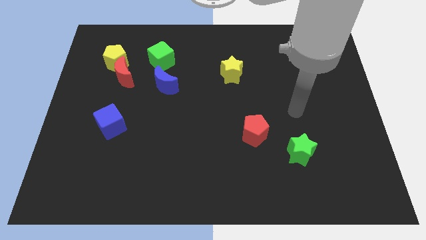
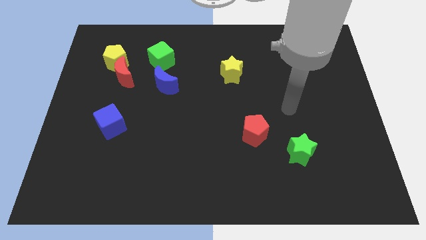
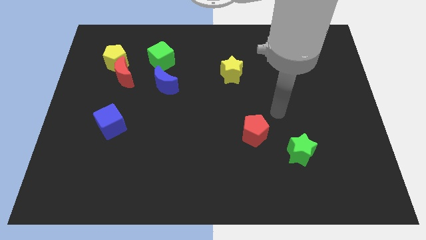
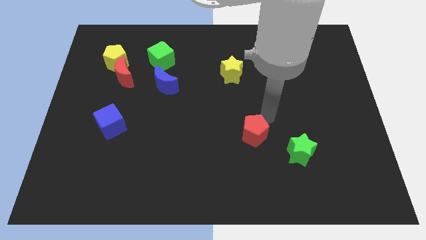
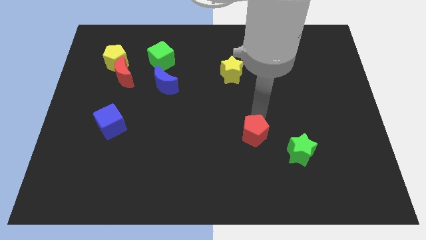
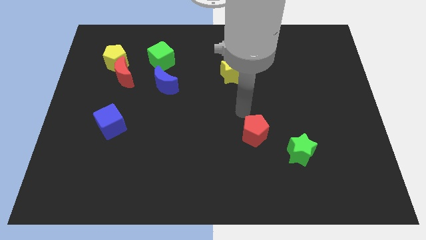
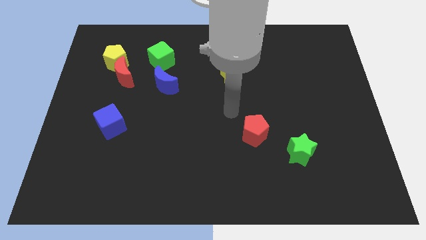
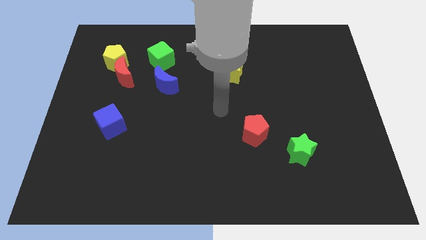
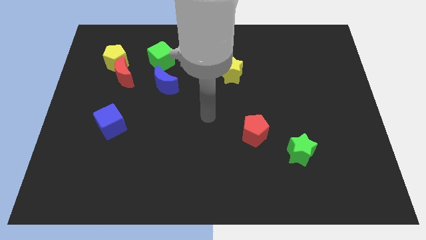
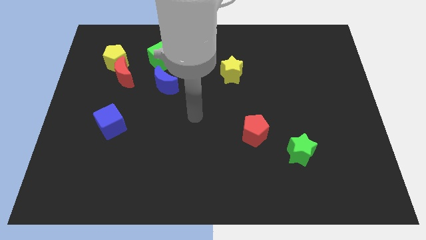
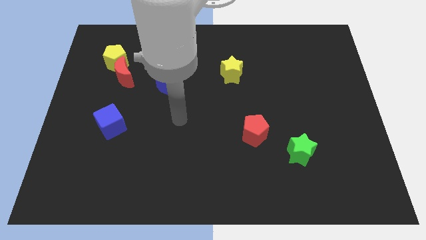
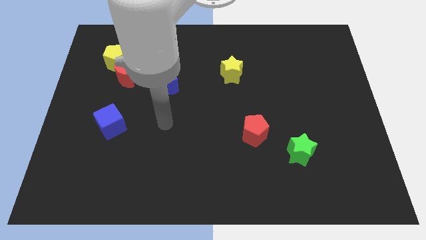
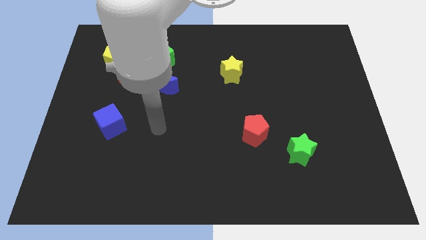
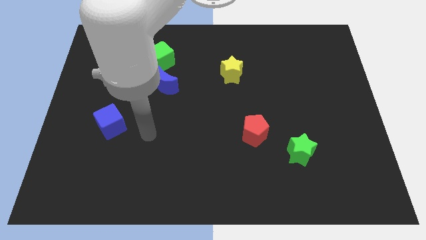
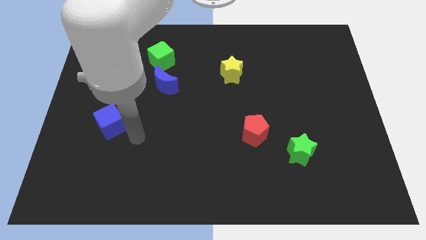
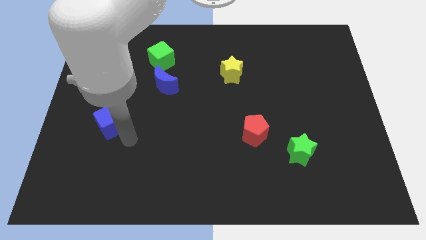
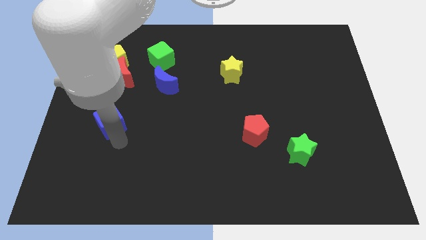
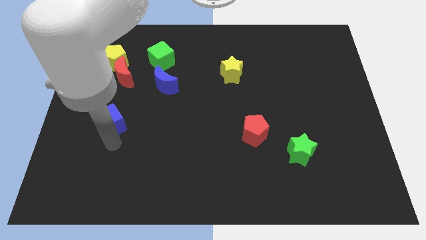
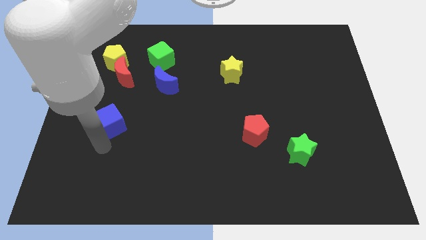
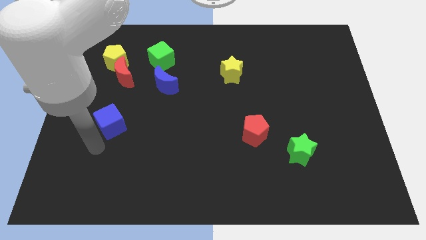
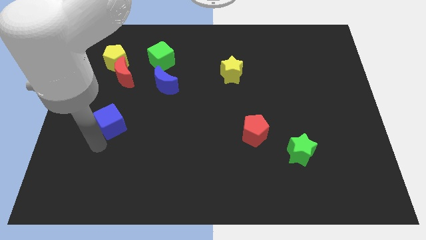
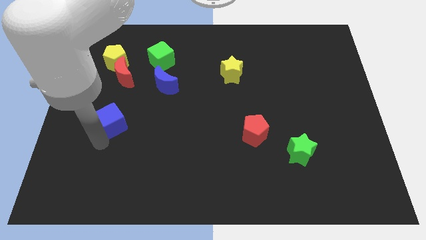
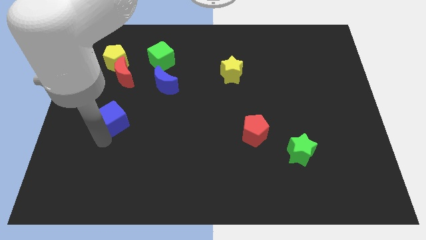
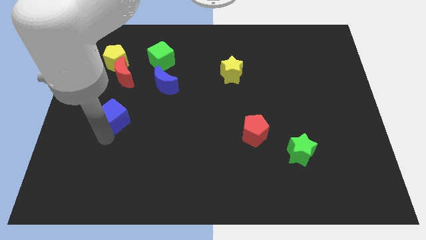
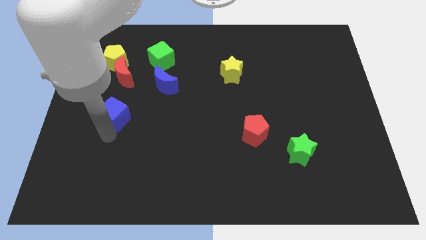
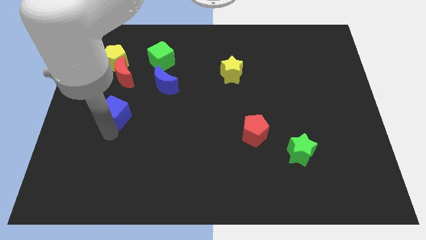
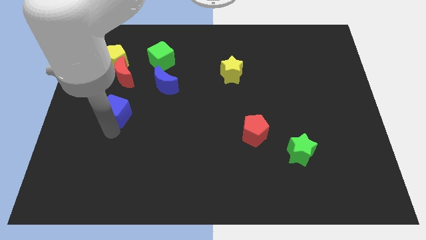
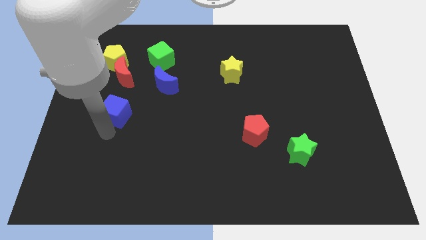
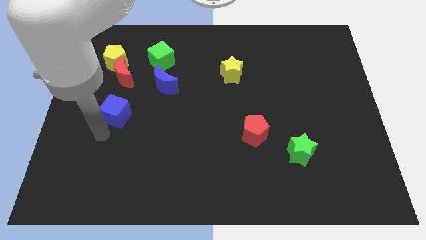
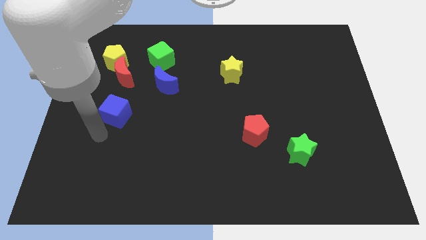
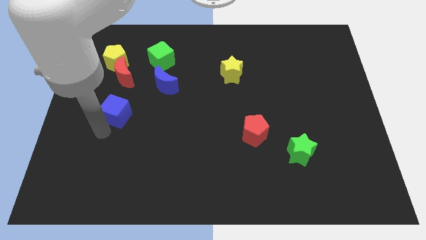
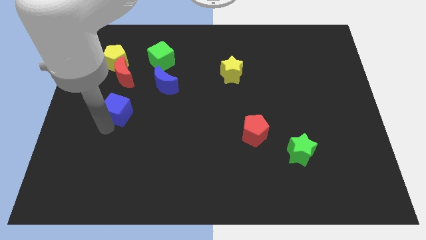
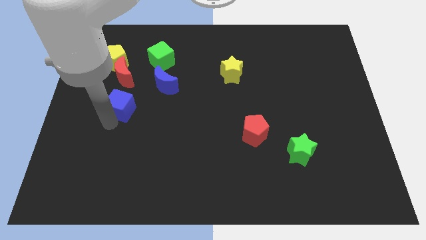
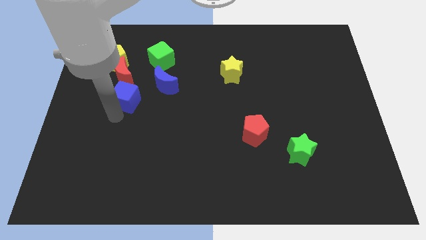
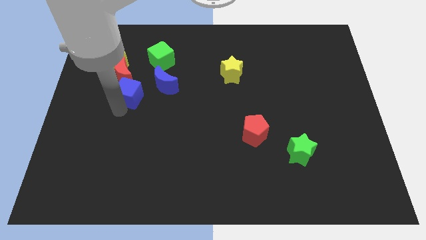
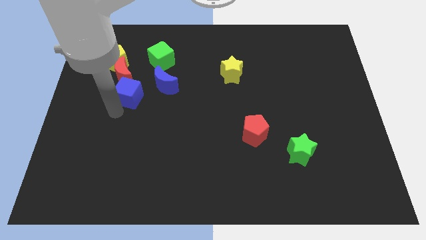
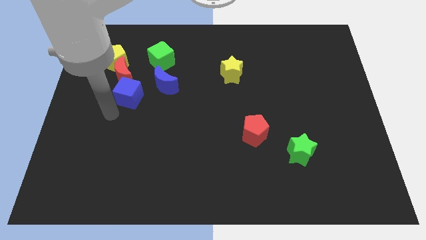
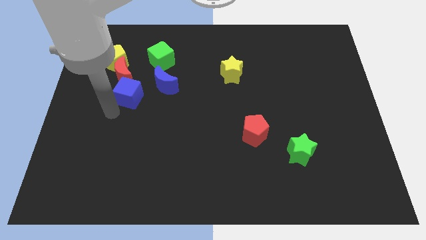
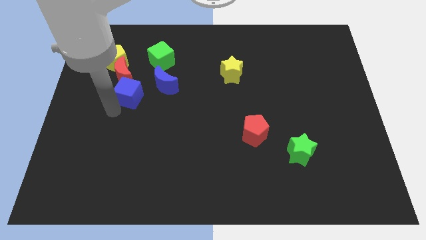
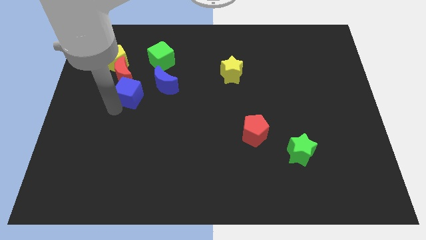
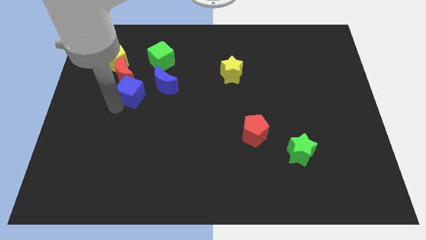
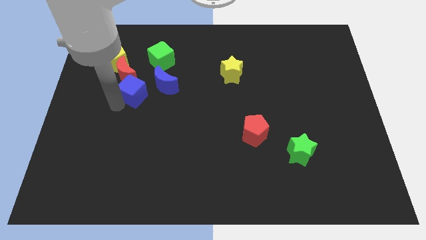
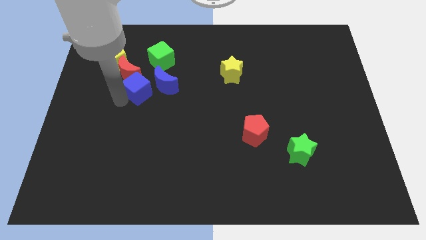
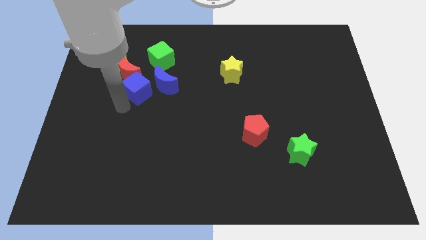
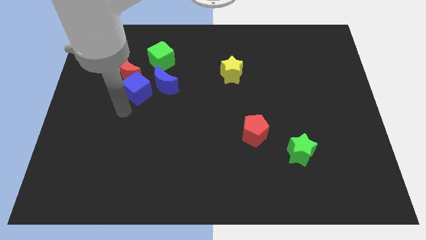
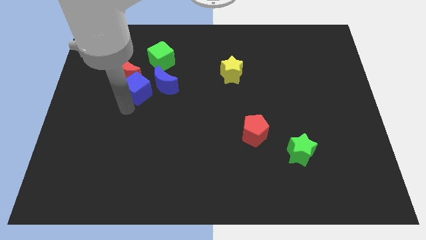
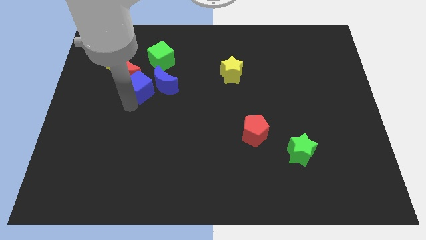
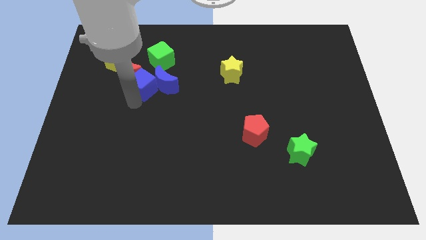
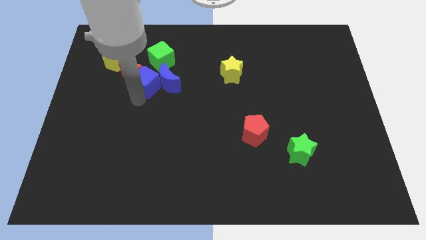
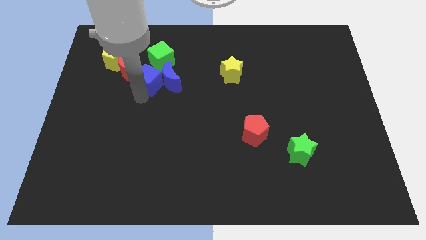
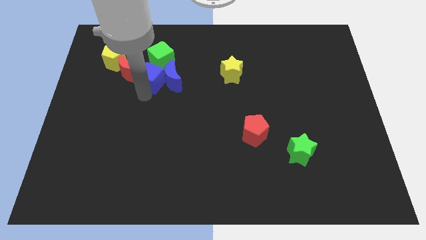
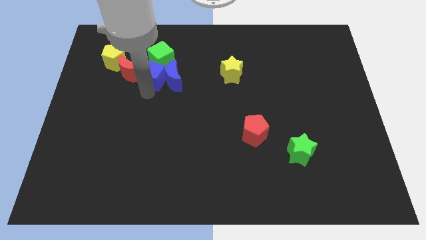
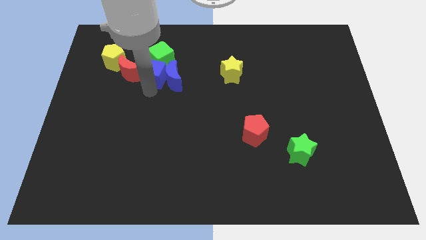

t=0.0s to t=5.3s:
put the blue cube to the green cube

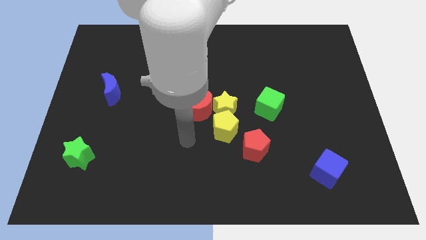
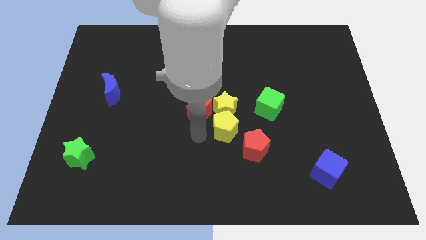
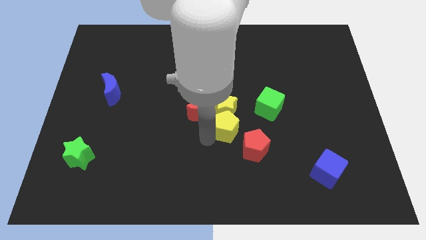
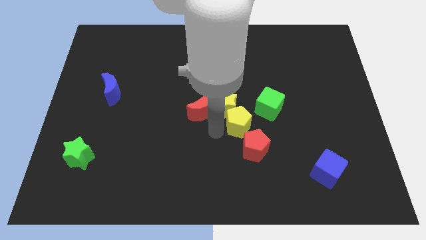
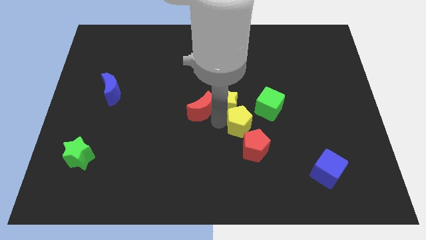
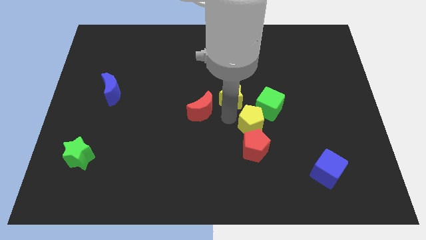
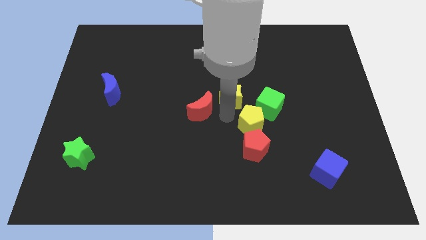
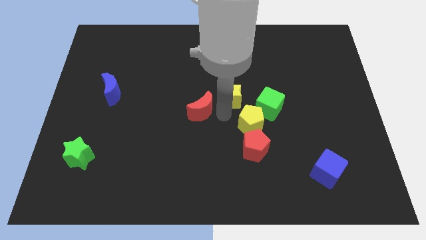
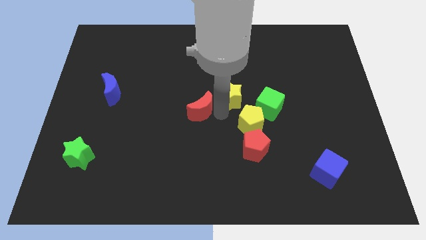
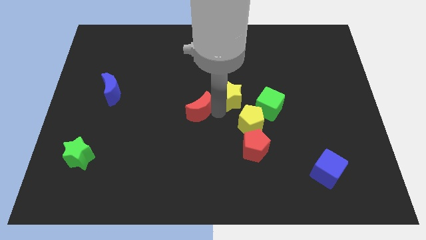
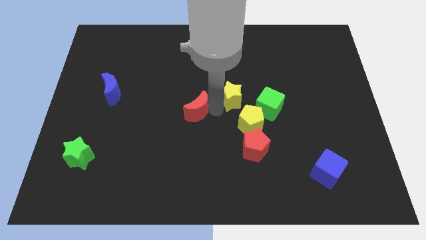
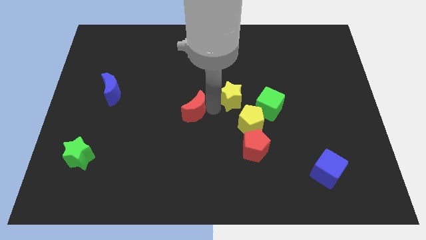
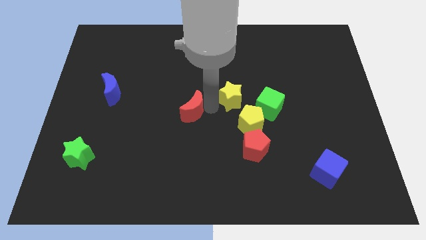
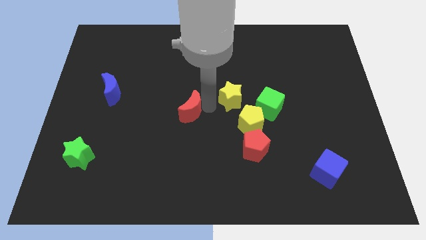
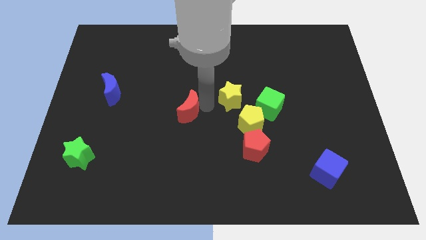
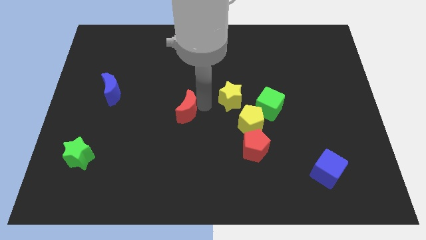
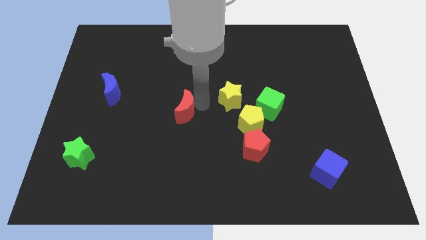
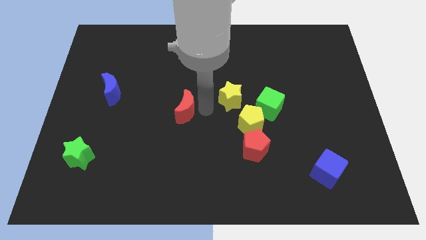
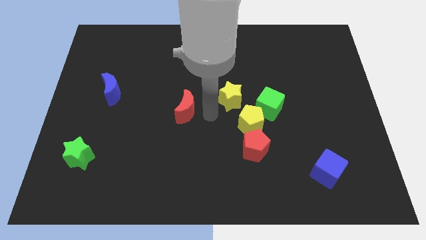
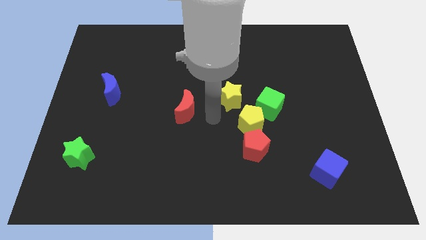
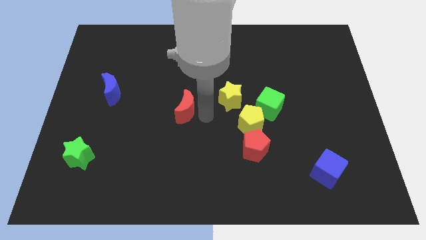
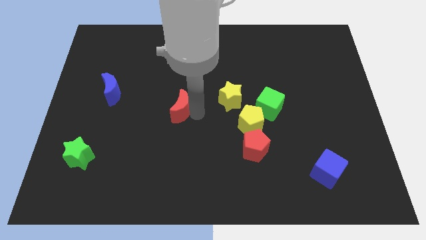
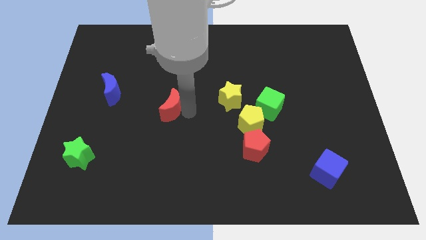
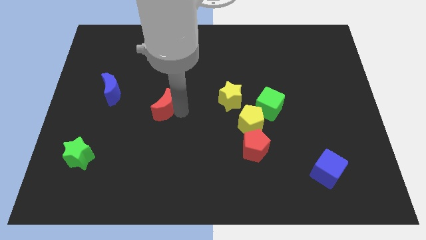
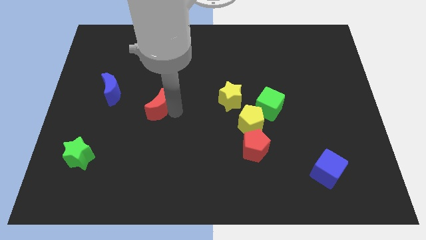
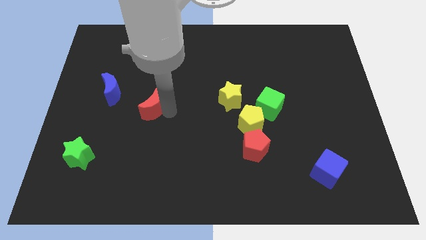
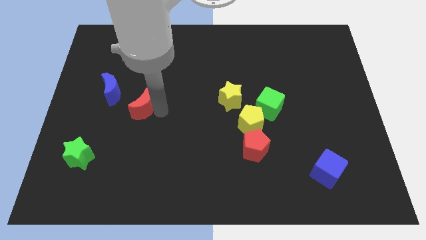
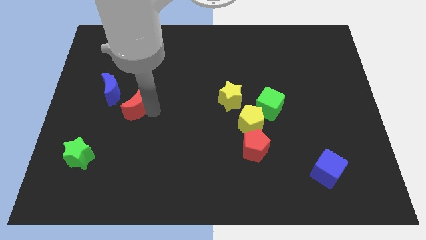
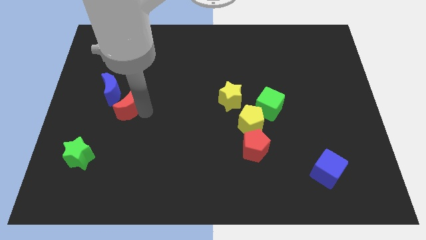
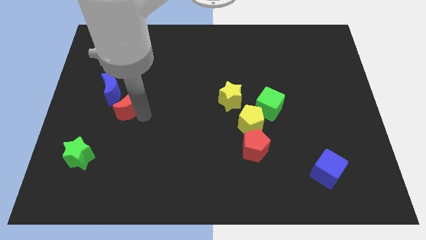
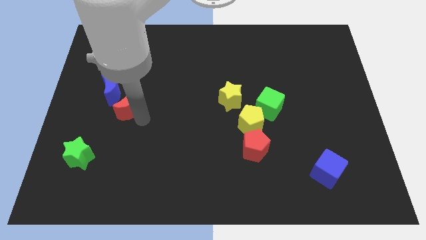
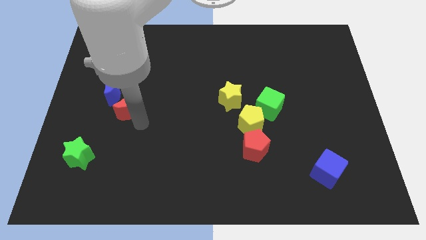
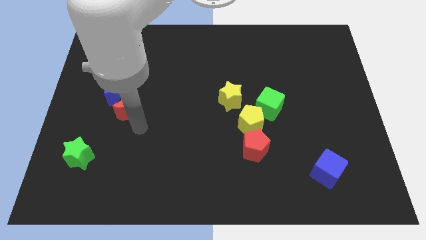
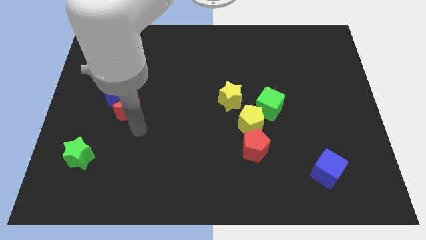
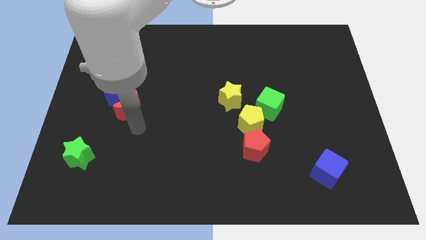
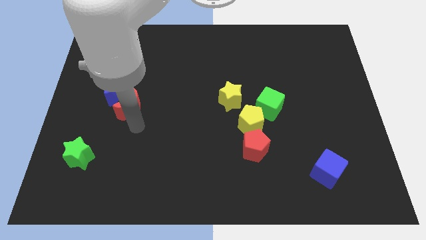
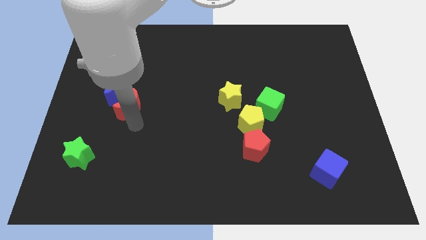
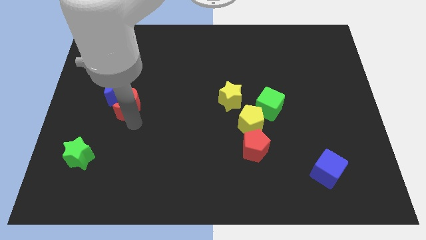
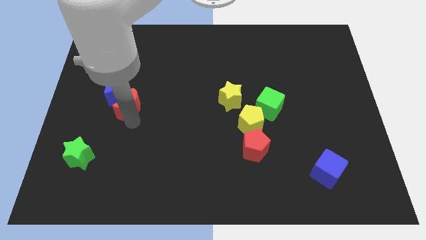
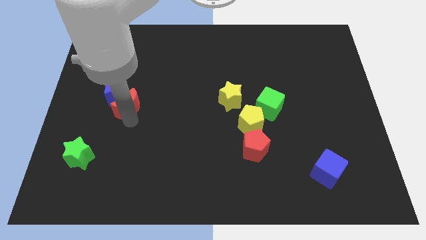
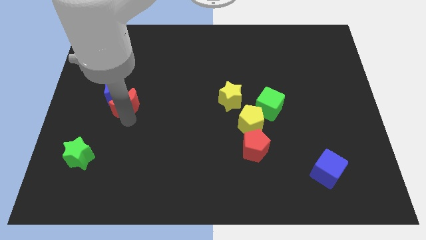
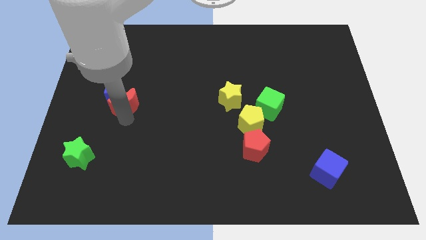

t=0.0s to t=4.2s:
push the red moon towards the blue moon
